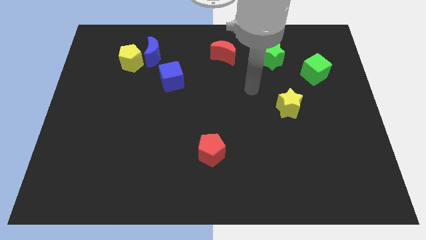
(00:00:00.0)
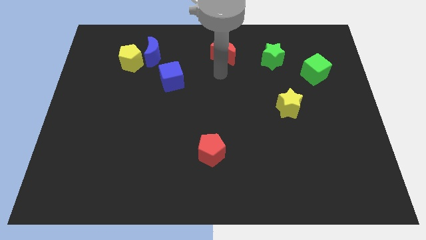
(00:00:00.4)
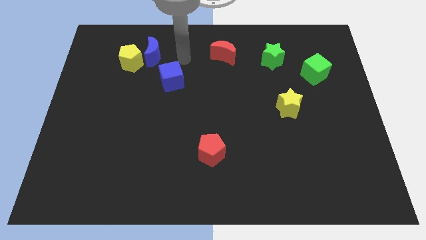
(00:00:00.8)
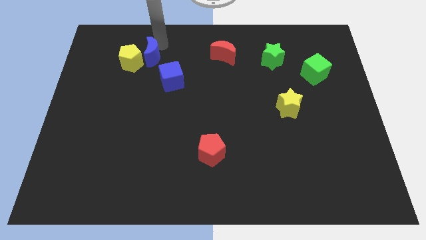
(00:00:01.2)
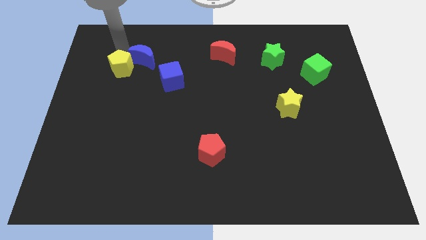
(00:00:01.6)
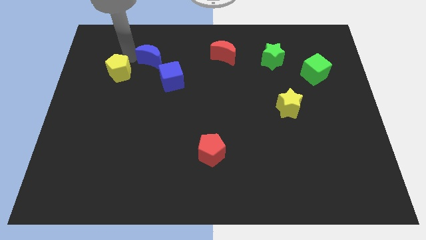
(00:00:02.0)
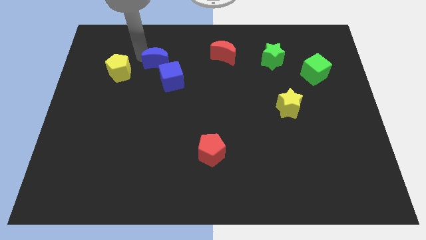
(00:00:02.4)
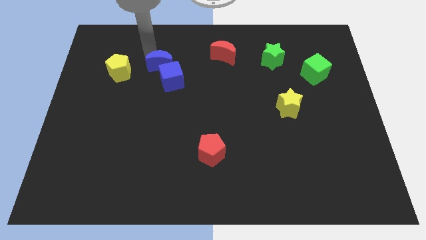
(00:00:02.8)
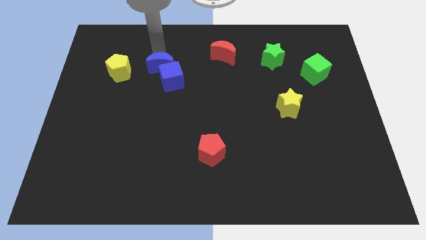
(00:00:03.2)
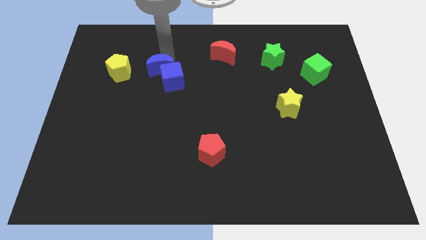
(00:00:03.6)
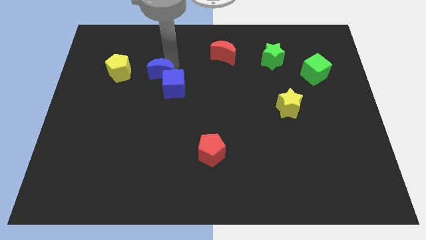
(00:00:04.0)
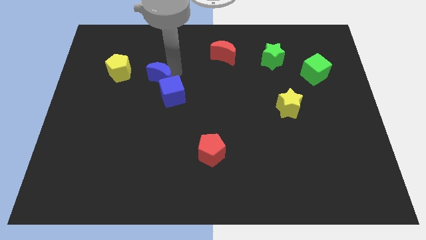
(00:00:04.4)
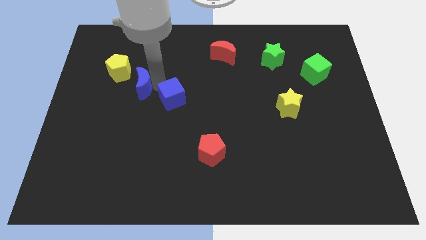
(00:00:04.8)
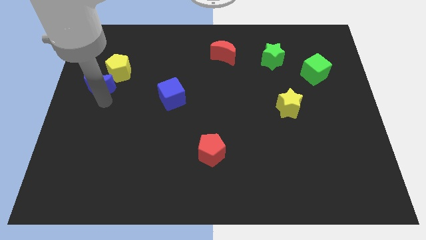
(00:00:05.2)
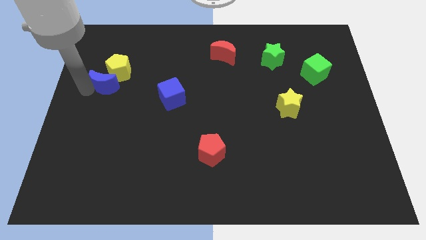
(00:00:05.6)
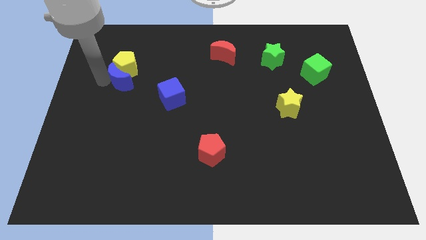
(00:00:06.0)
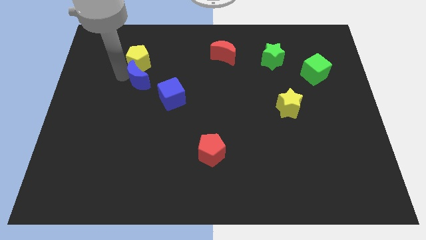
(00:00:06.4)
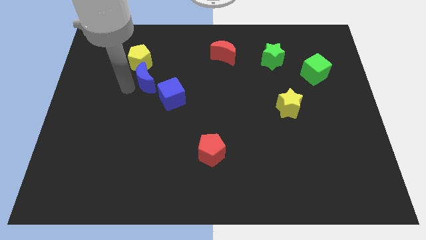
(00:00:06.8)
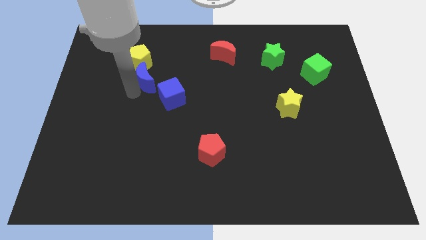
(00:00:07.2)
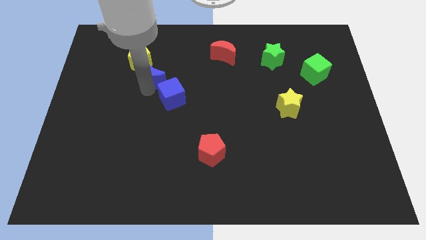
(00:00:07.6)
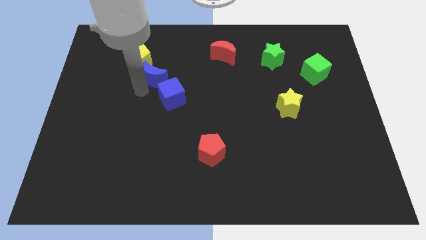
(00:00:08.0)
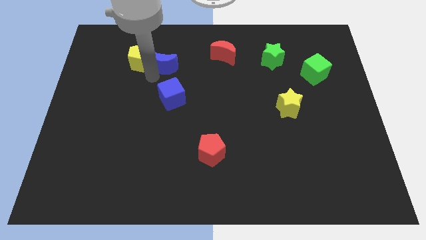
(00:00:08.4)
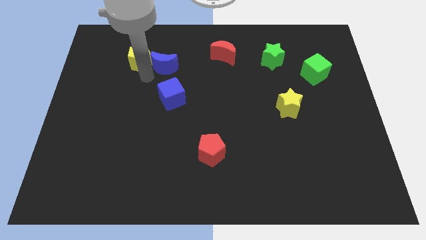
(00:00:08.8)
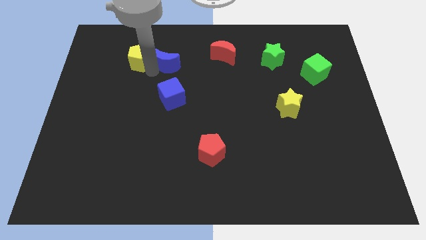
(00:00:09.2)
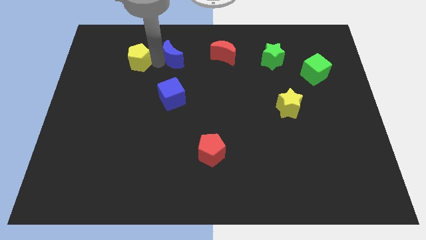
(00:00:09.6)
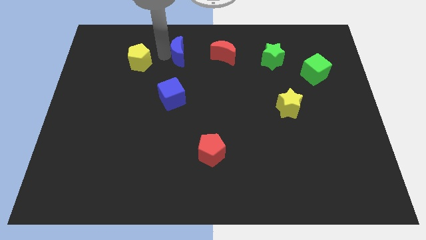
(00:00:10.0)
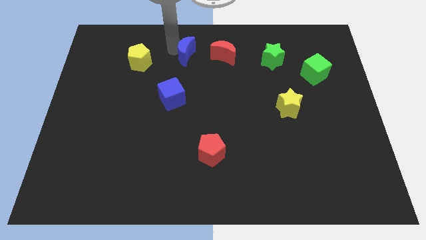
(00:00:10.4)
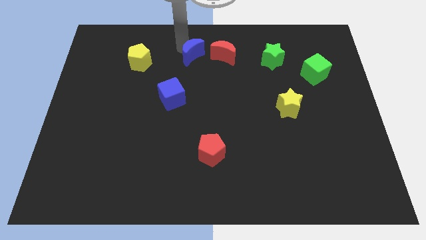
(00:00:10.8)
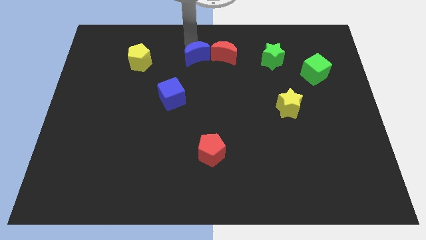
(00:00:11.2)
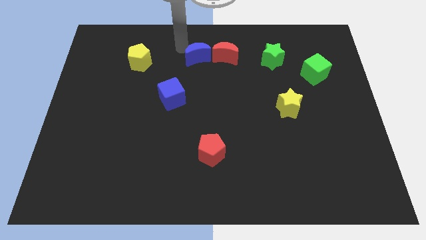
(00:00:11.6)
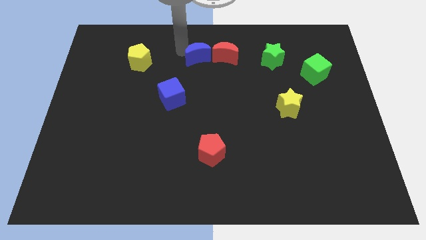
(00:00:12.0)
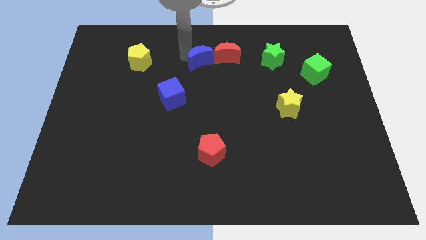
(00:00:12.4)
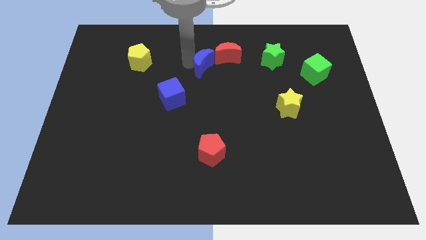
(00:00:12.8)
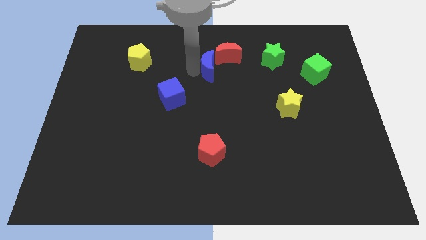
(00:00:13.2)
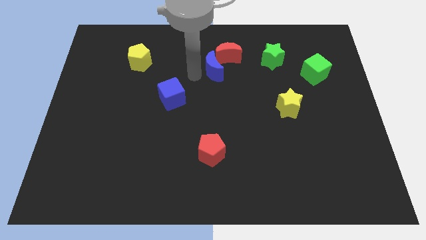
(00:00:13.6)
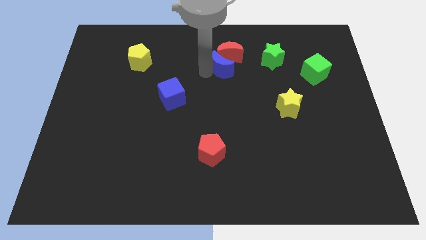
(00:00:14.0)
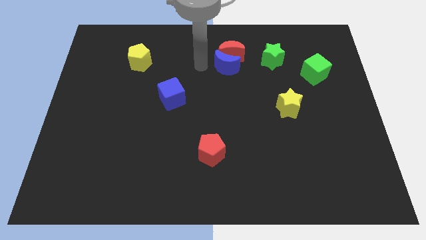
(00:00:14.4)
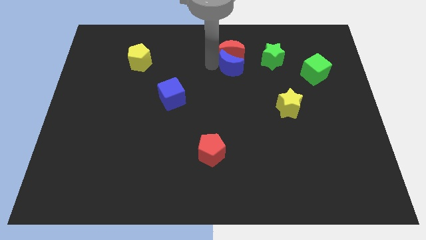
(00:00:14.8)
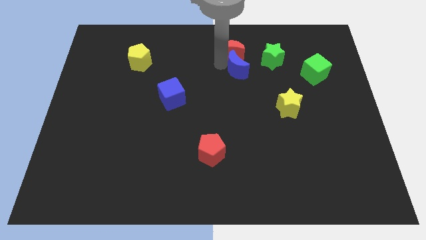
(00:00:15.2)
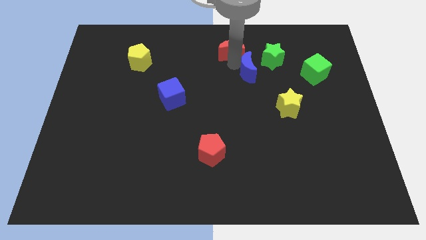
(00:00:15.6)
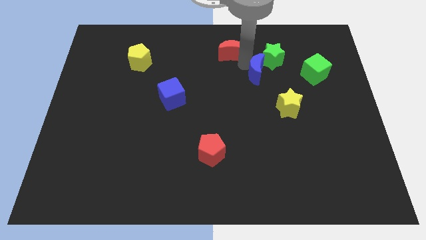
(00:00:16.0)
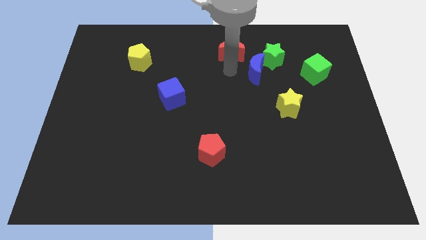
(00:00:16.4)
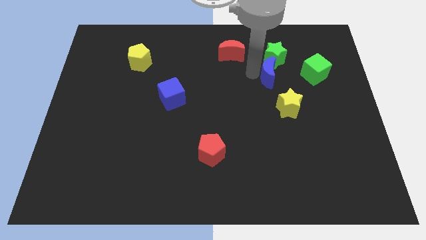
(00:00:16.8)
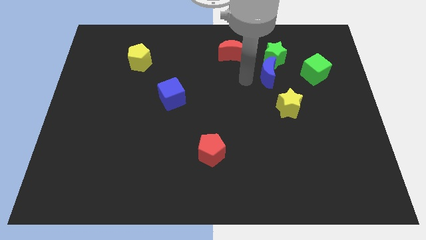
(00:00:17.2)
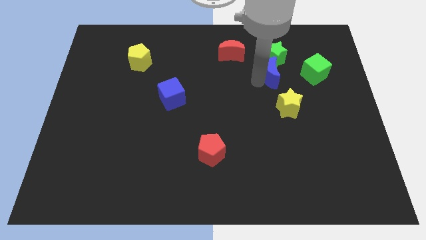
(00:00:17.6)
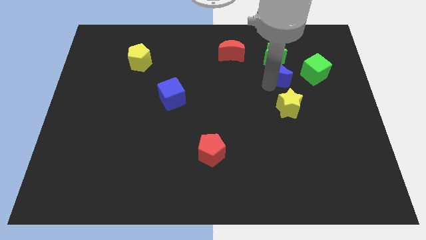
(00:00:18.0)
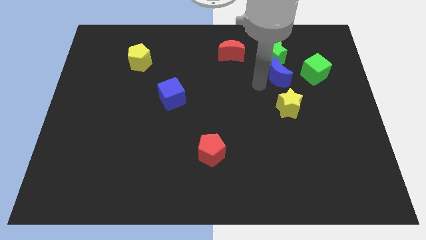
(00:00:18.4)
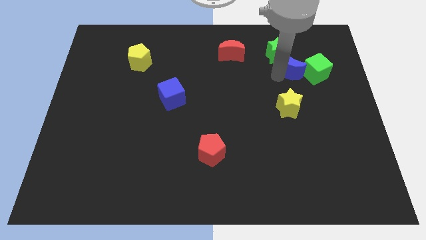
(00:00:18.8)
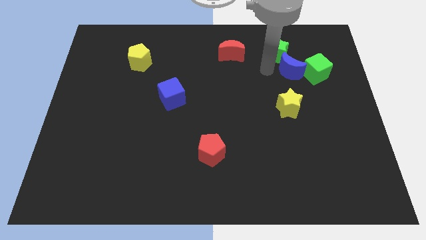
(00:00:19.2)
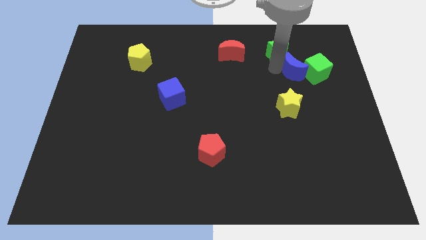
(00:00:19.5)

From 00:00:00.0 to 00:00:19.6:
slide the blue moon to the green cube

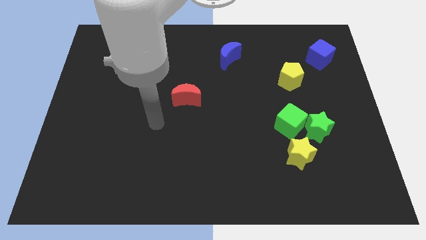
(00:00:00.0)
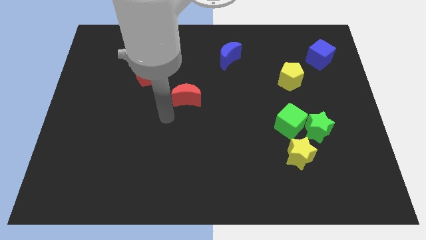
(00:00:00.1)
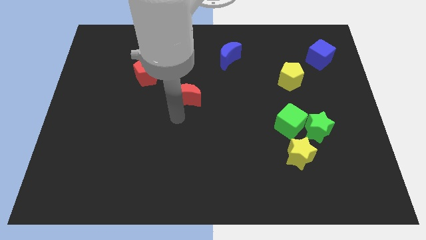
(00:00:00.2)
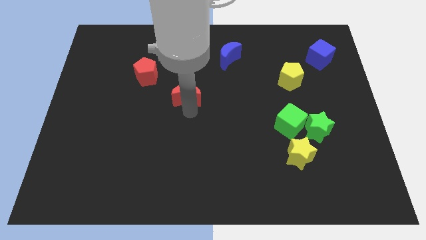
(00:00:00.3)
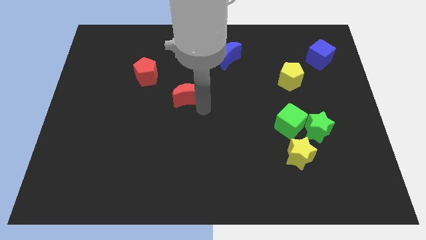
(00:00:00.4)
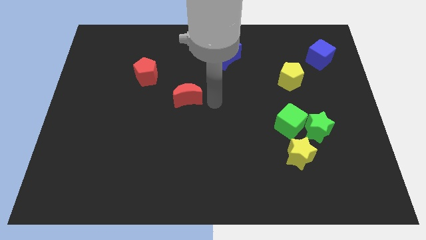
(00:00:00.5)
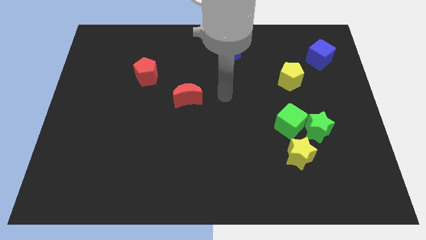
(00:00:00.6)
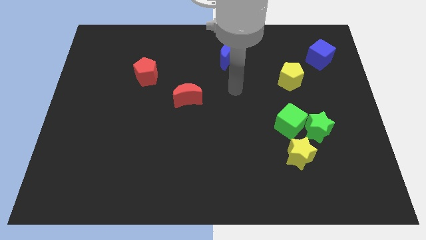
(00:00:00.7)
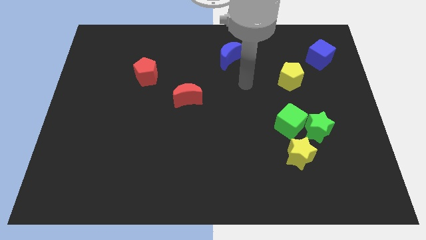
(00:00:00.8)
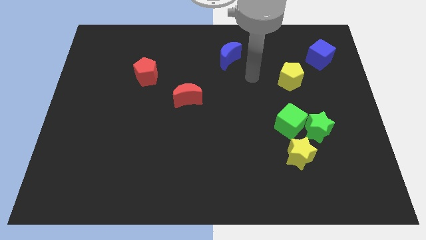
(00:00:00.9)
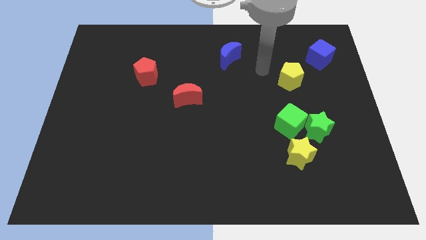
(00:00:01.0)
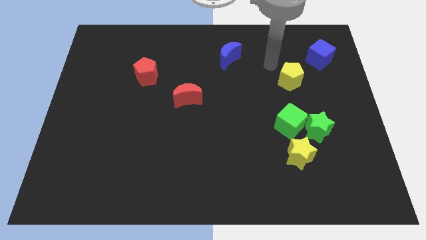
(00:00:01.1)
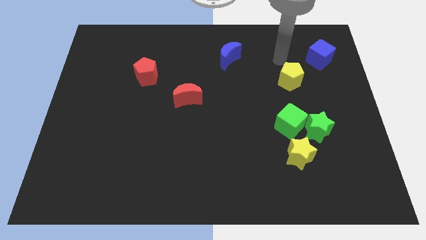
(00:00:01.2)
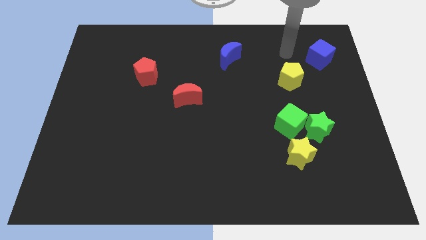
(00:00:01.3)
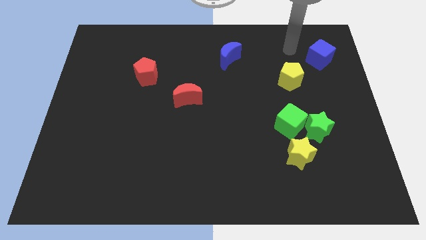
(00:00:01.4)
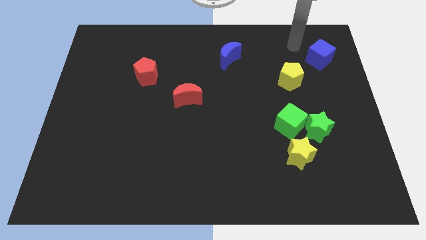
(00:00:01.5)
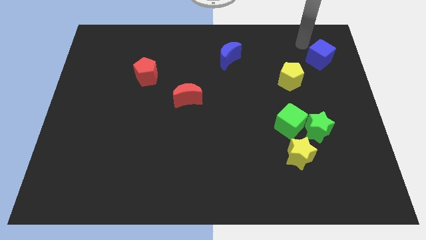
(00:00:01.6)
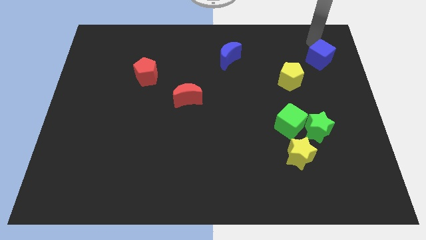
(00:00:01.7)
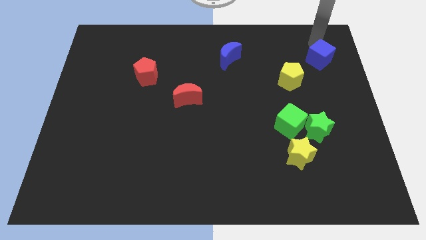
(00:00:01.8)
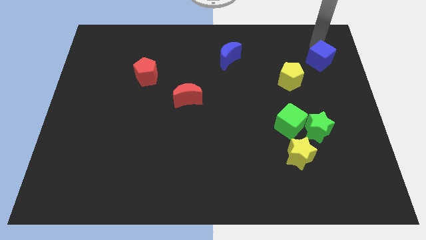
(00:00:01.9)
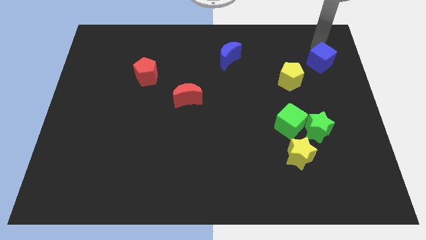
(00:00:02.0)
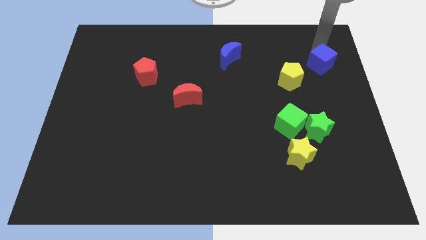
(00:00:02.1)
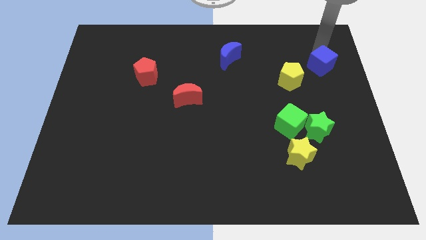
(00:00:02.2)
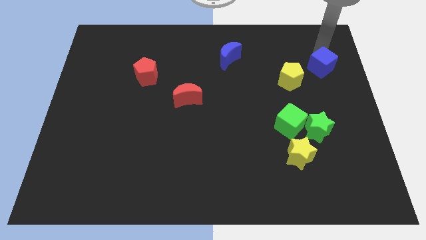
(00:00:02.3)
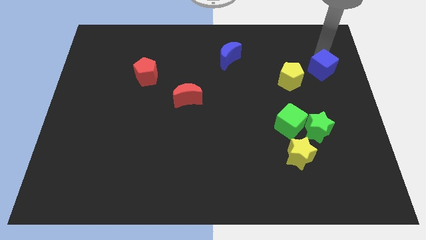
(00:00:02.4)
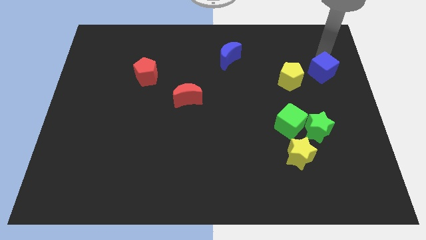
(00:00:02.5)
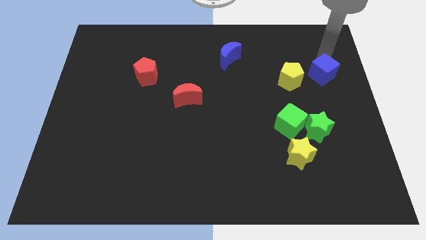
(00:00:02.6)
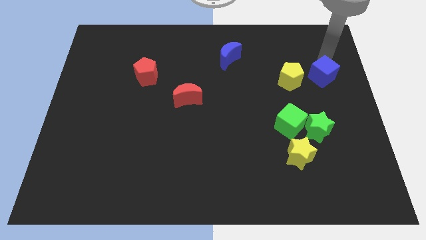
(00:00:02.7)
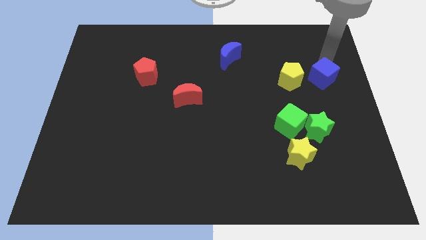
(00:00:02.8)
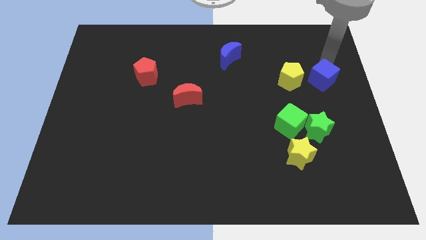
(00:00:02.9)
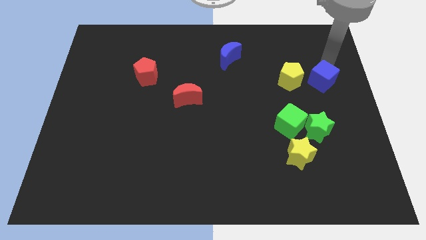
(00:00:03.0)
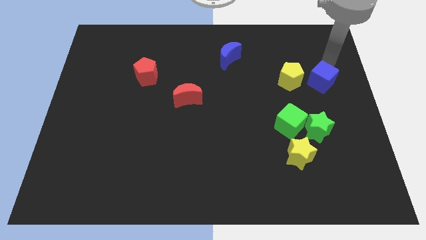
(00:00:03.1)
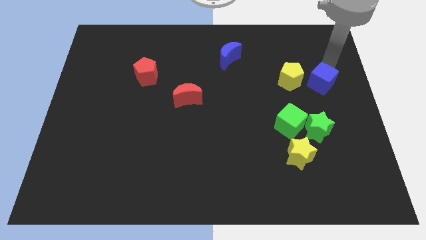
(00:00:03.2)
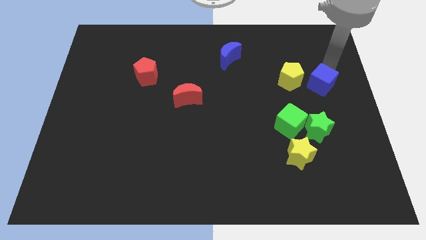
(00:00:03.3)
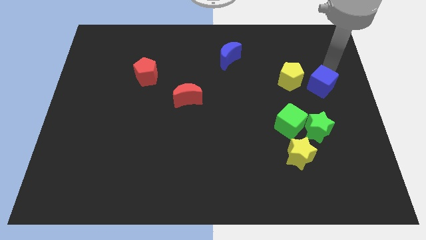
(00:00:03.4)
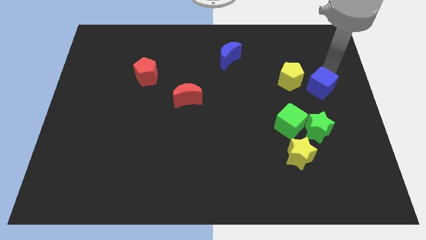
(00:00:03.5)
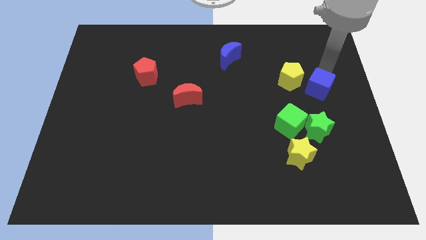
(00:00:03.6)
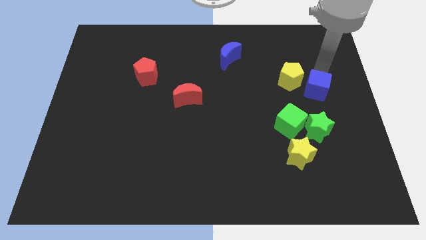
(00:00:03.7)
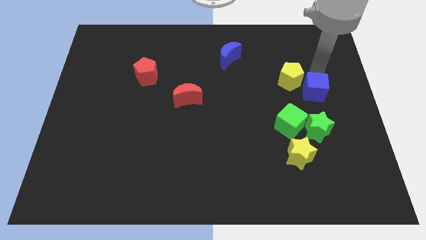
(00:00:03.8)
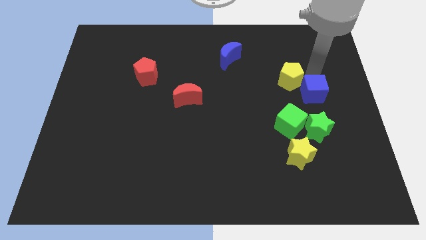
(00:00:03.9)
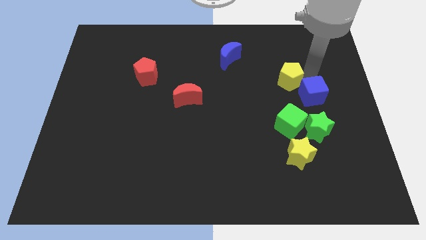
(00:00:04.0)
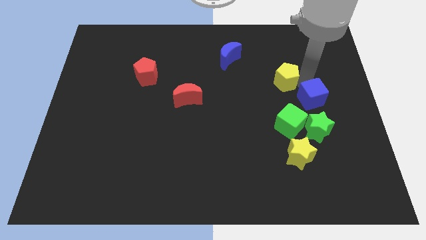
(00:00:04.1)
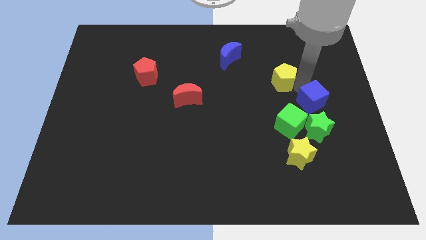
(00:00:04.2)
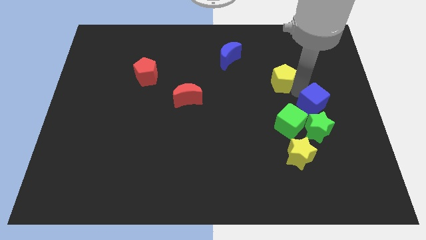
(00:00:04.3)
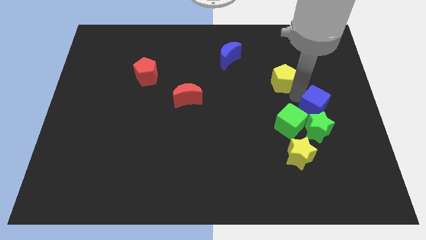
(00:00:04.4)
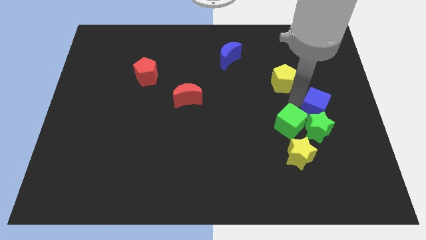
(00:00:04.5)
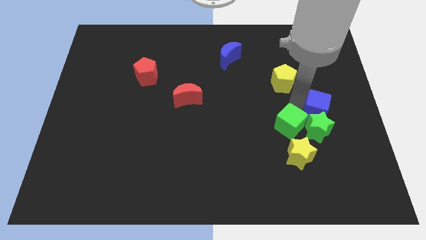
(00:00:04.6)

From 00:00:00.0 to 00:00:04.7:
move the blue cube to the green star
